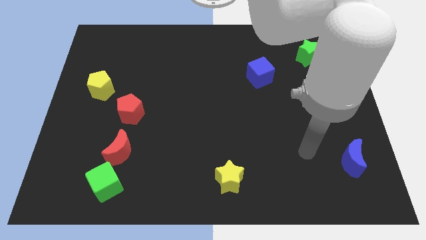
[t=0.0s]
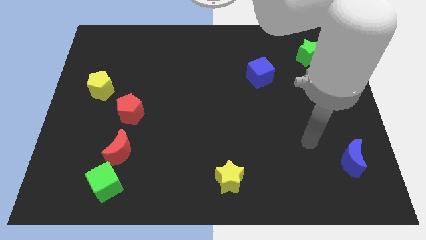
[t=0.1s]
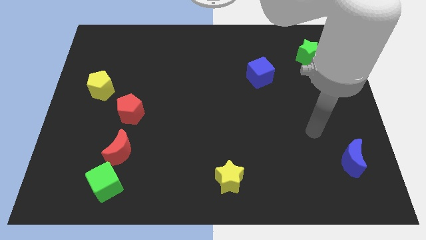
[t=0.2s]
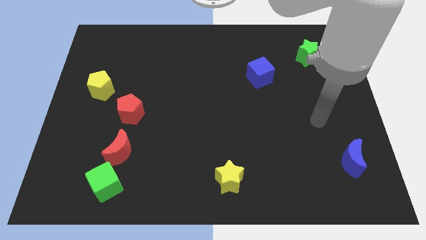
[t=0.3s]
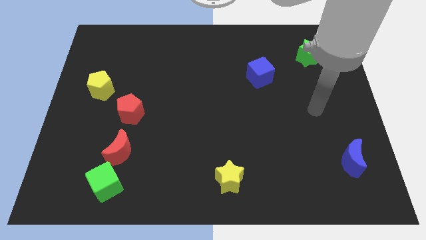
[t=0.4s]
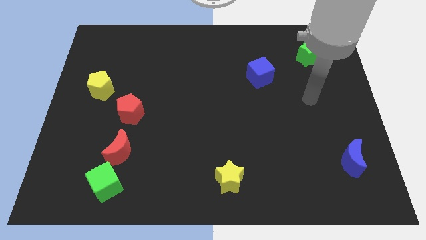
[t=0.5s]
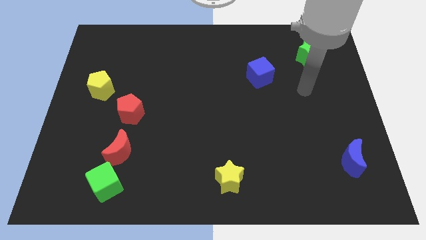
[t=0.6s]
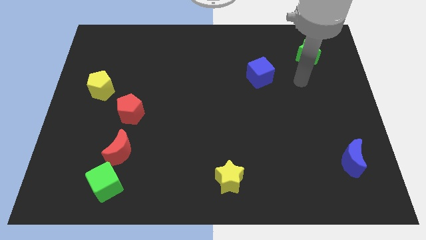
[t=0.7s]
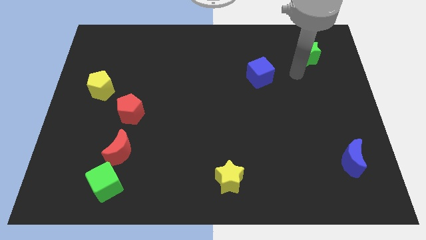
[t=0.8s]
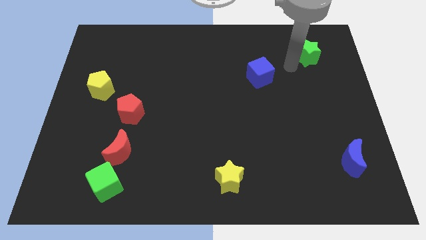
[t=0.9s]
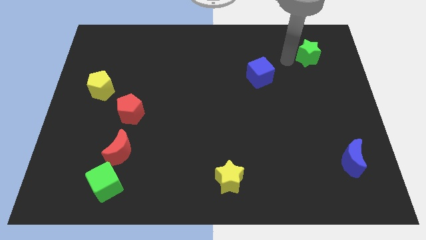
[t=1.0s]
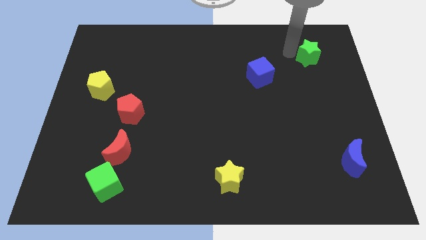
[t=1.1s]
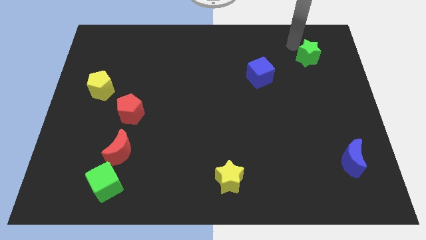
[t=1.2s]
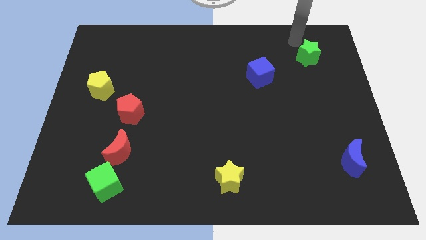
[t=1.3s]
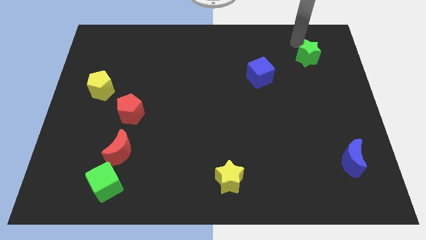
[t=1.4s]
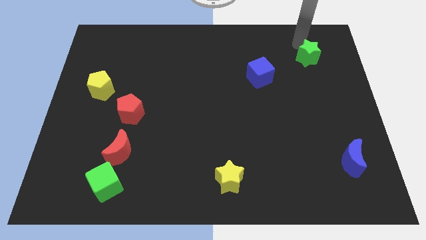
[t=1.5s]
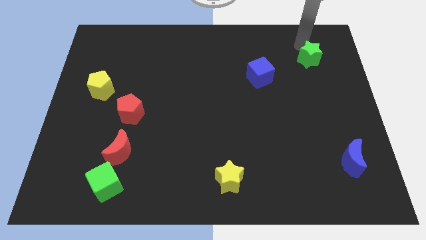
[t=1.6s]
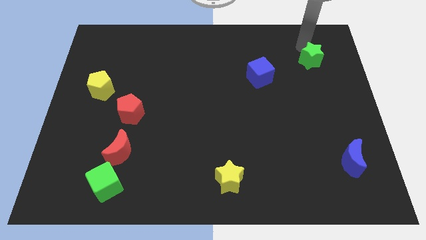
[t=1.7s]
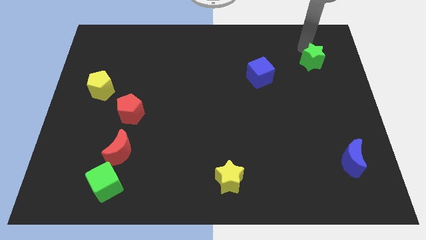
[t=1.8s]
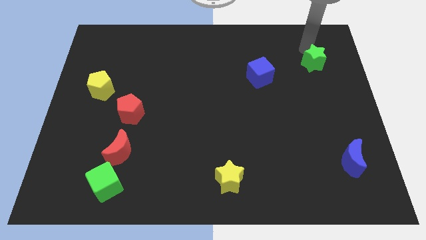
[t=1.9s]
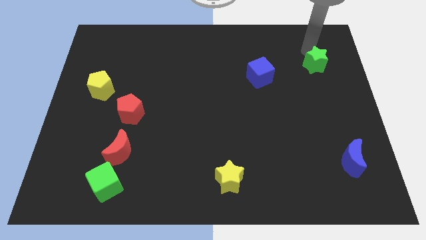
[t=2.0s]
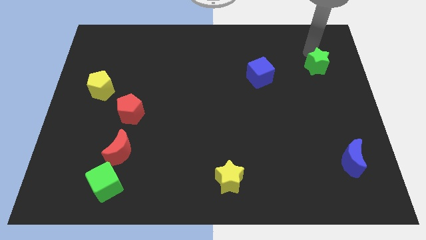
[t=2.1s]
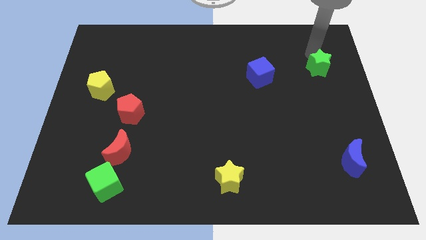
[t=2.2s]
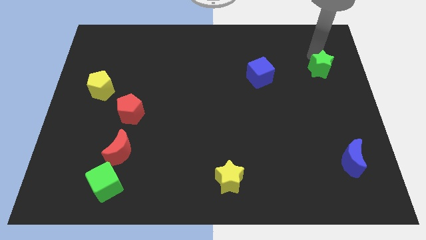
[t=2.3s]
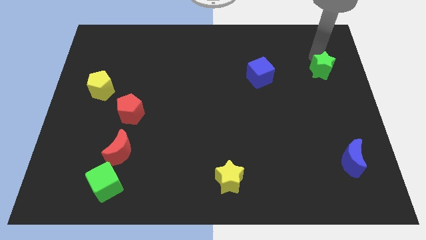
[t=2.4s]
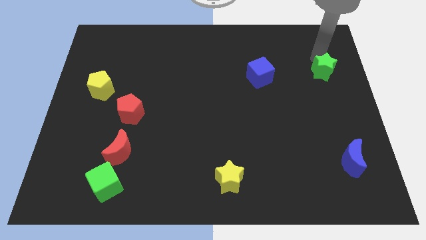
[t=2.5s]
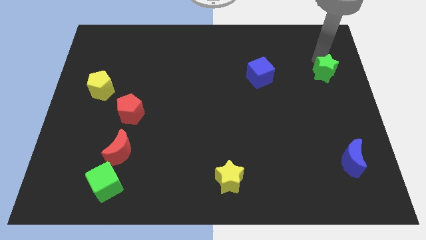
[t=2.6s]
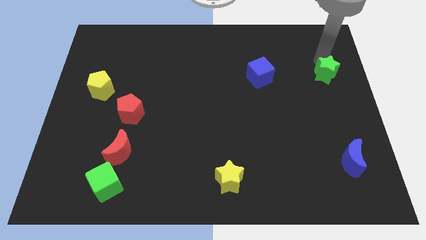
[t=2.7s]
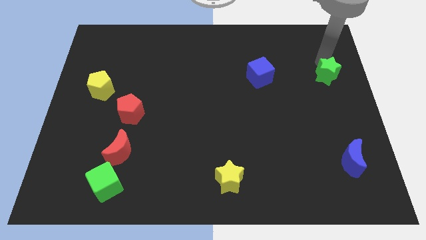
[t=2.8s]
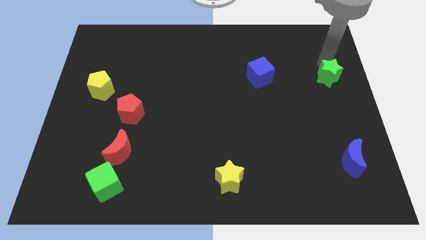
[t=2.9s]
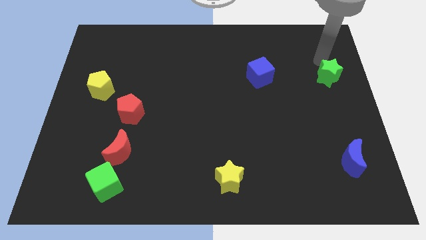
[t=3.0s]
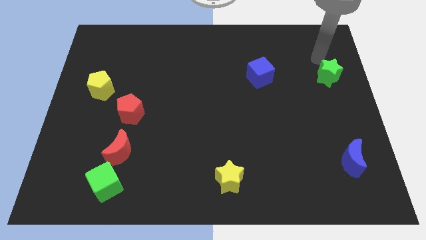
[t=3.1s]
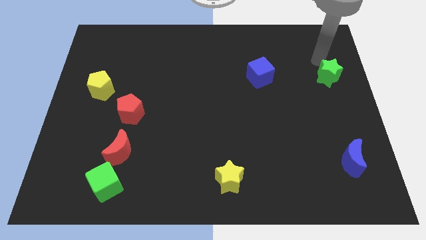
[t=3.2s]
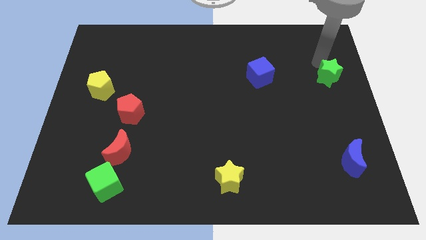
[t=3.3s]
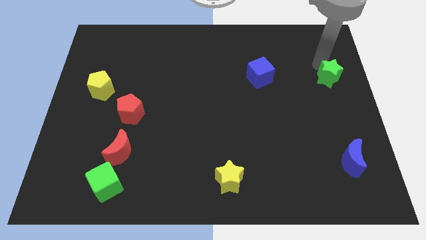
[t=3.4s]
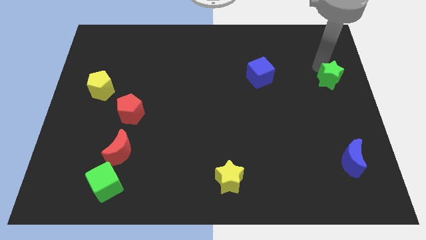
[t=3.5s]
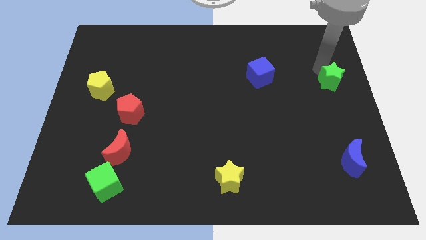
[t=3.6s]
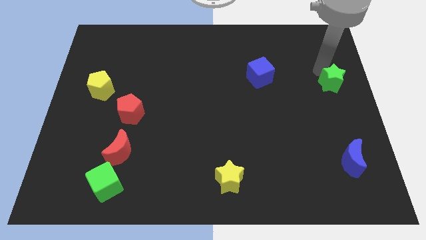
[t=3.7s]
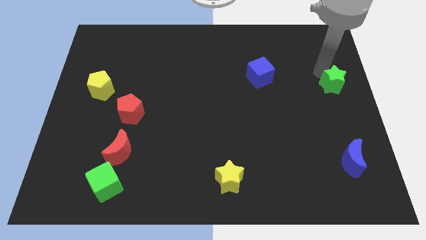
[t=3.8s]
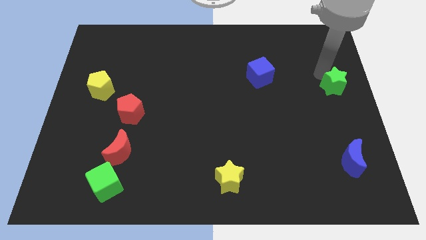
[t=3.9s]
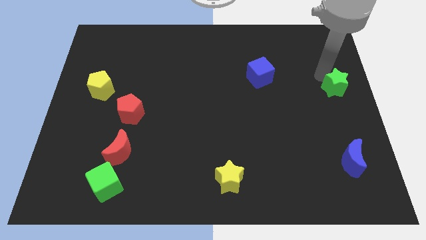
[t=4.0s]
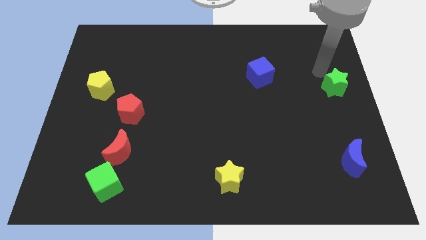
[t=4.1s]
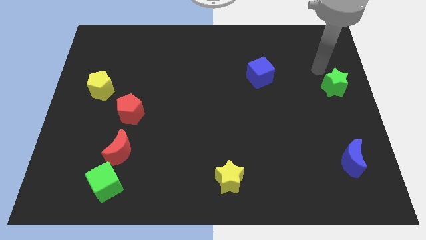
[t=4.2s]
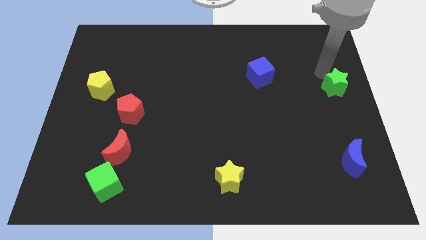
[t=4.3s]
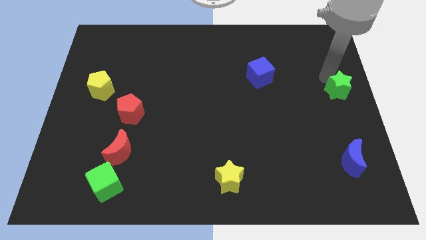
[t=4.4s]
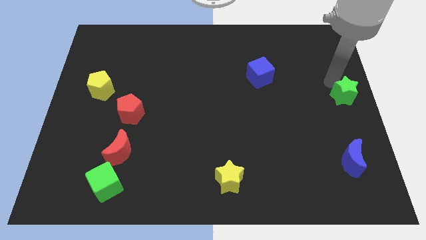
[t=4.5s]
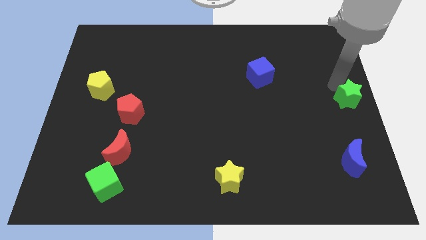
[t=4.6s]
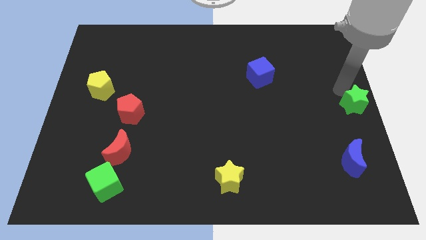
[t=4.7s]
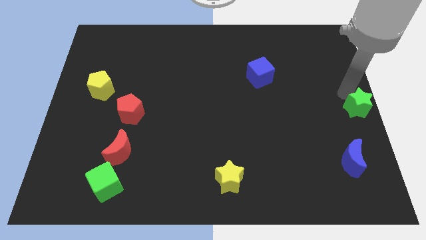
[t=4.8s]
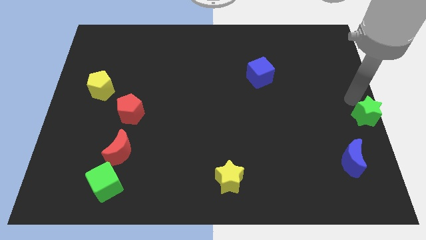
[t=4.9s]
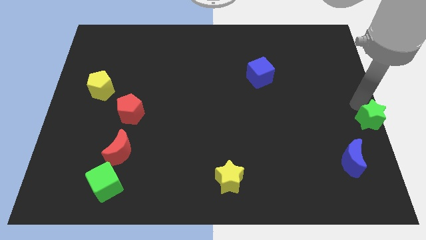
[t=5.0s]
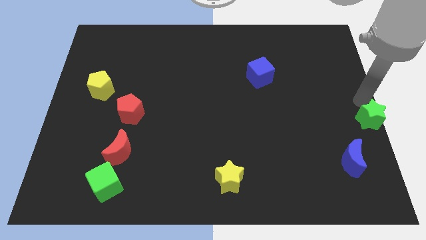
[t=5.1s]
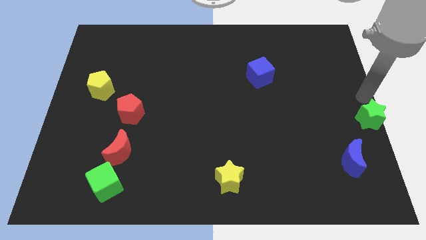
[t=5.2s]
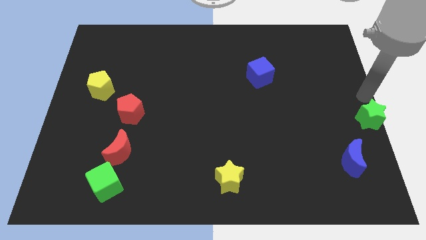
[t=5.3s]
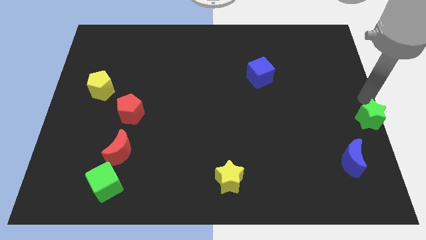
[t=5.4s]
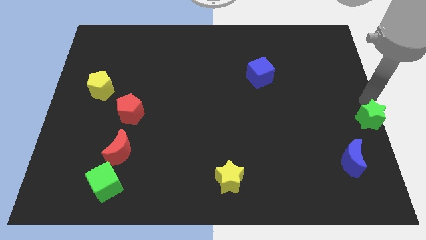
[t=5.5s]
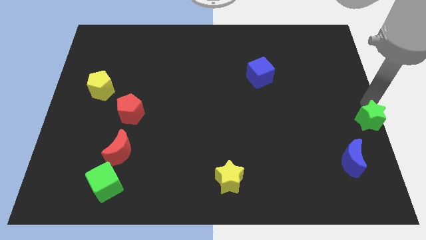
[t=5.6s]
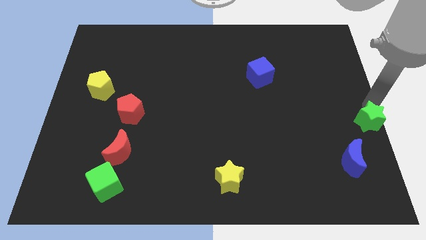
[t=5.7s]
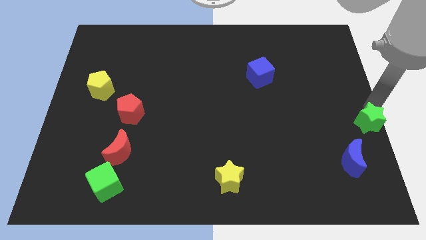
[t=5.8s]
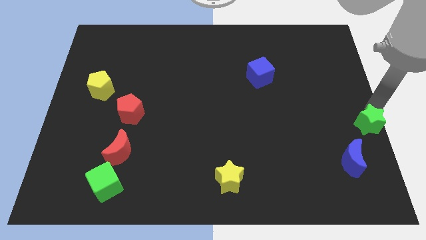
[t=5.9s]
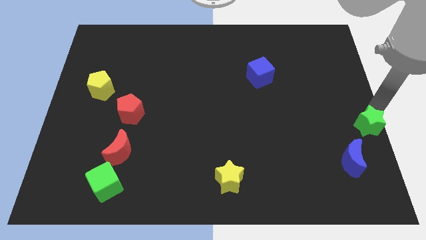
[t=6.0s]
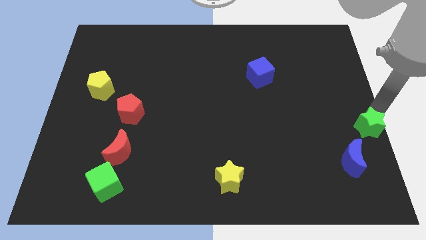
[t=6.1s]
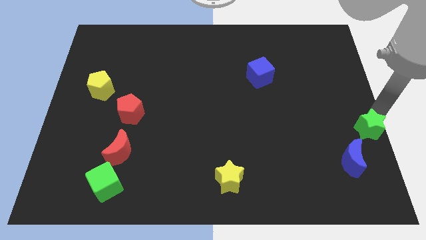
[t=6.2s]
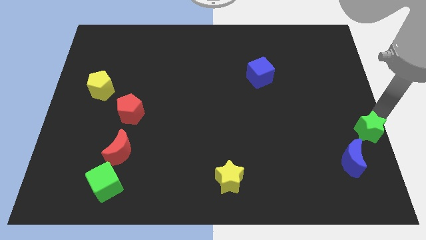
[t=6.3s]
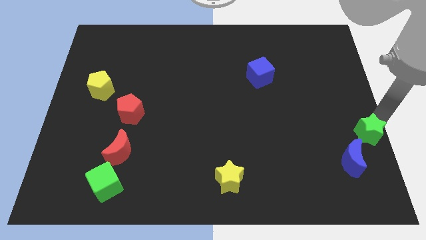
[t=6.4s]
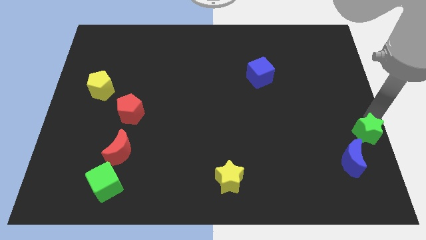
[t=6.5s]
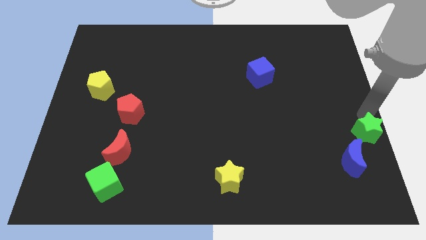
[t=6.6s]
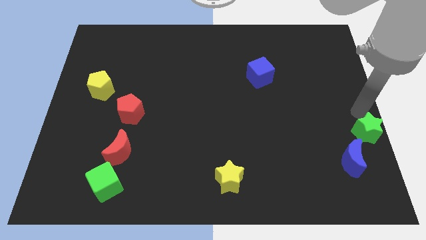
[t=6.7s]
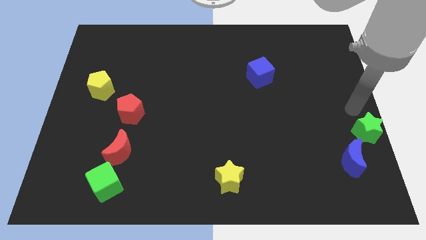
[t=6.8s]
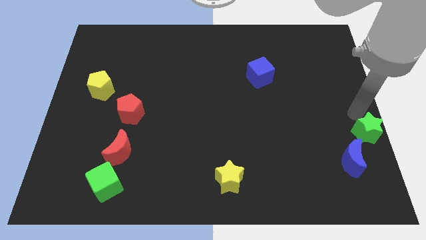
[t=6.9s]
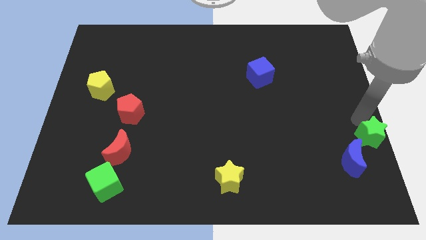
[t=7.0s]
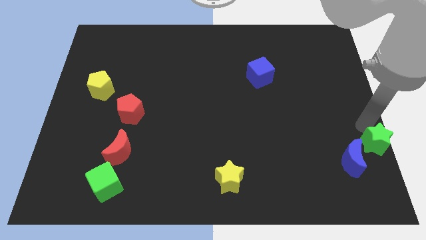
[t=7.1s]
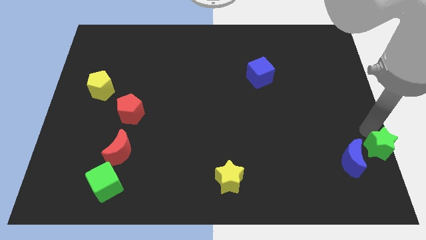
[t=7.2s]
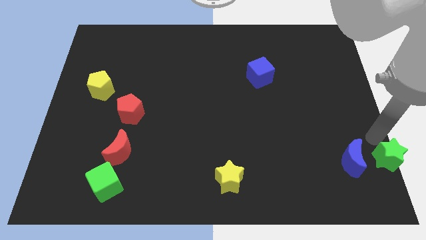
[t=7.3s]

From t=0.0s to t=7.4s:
put the green star to the bottom right corner
